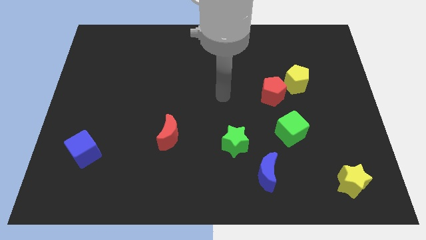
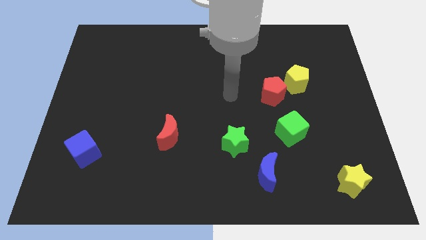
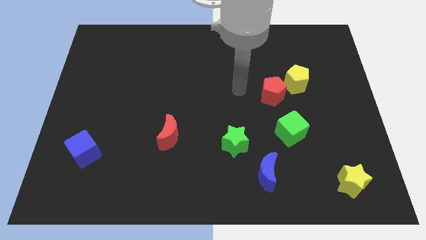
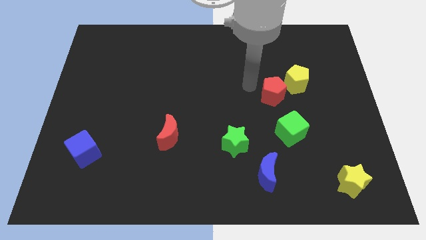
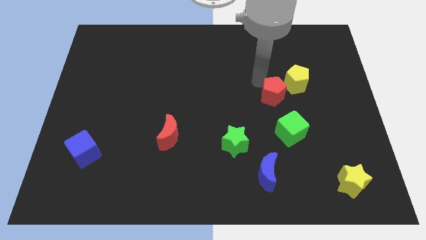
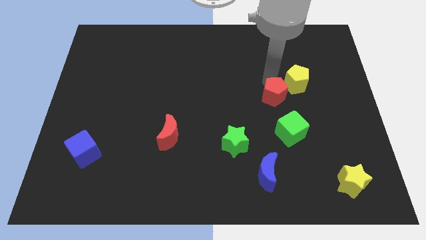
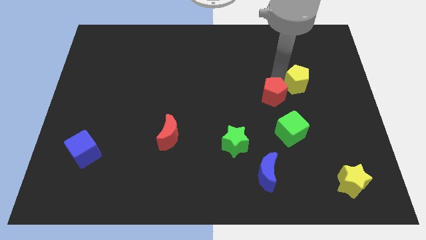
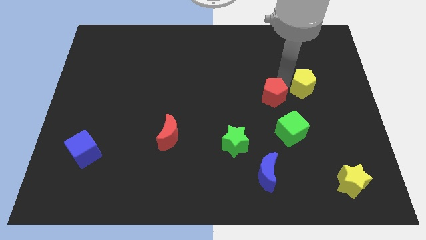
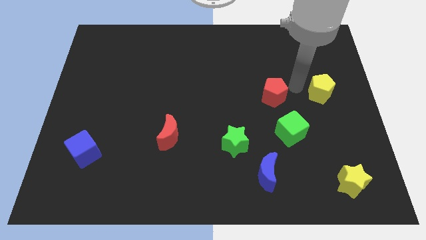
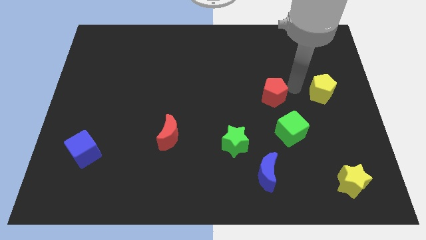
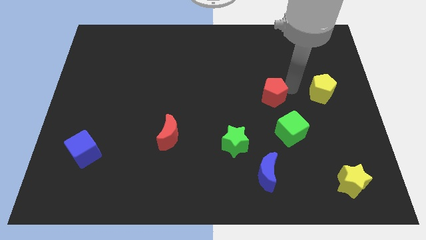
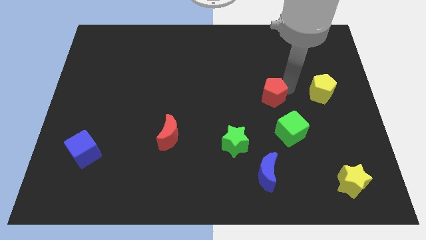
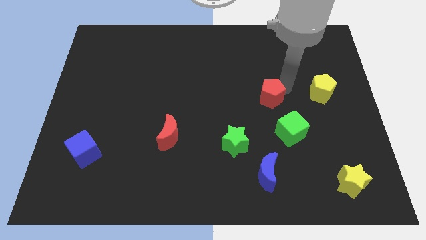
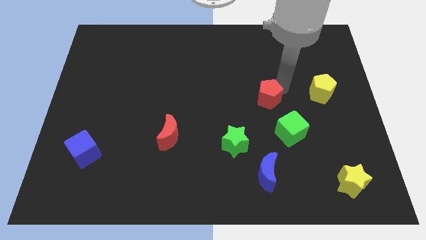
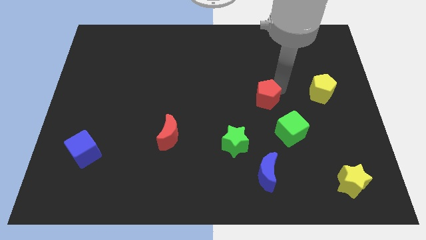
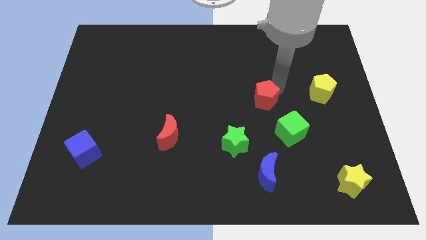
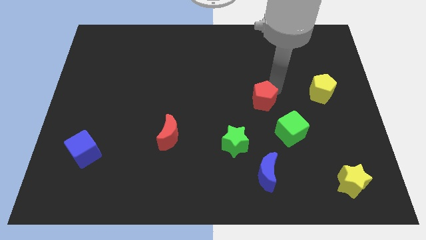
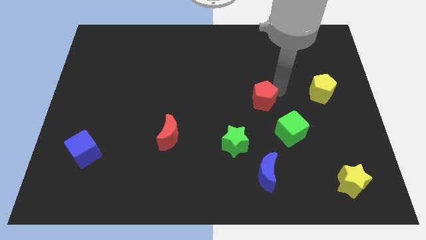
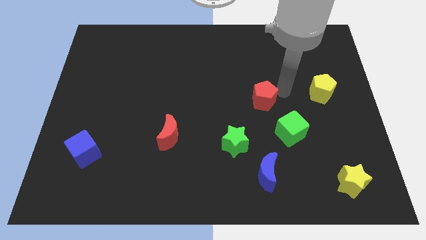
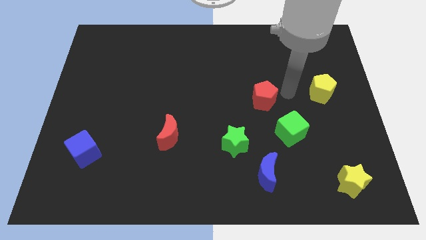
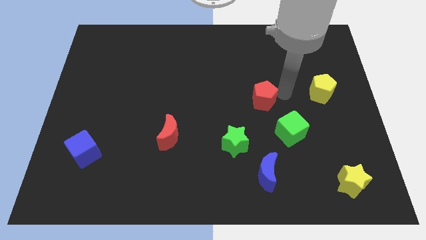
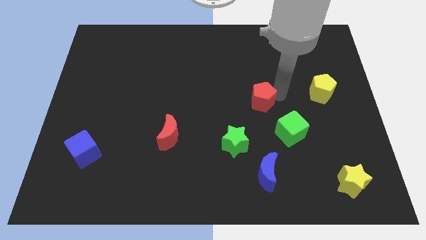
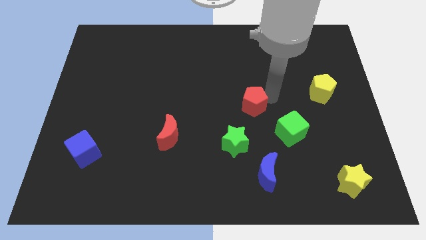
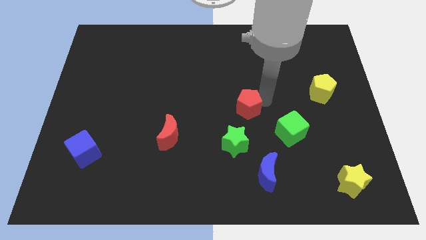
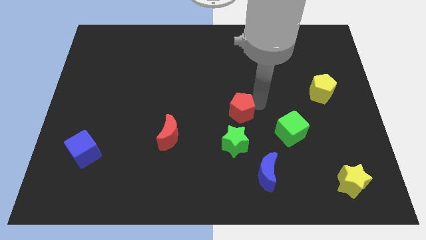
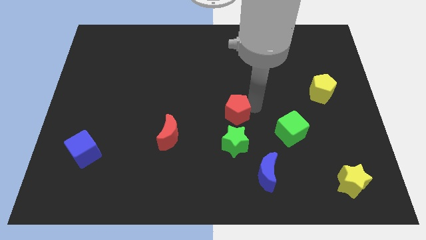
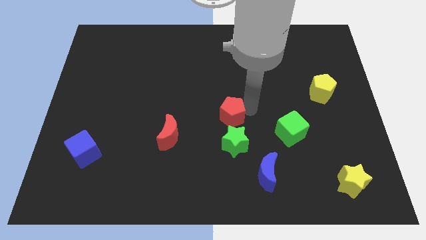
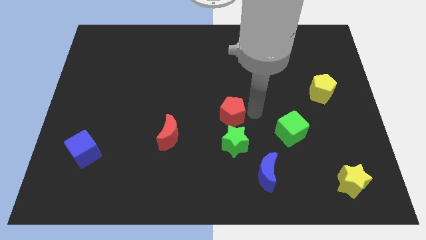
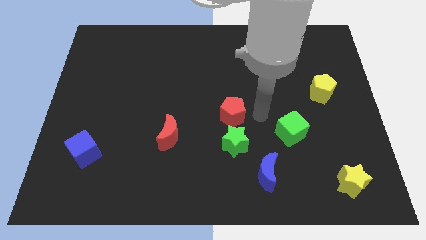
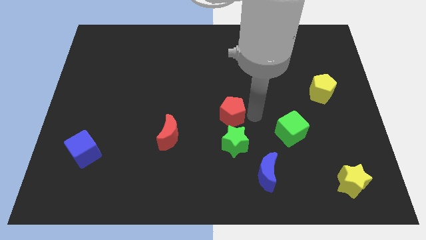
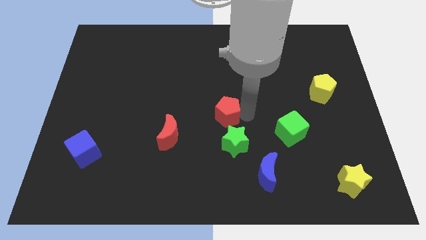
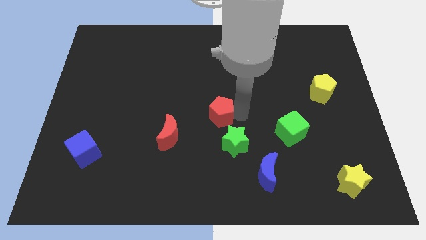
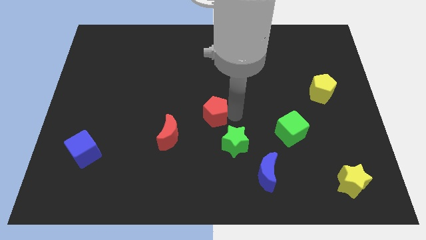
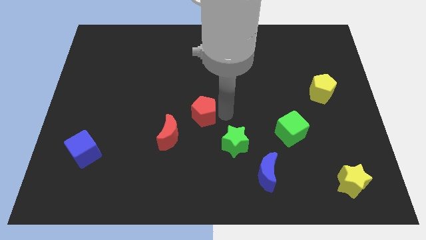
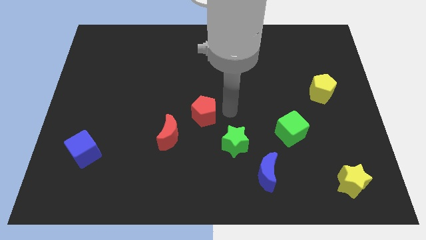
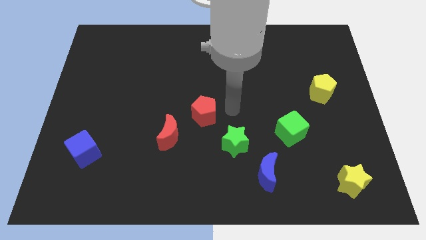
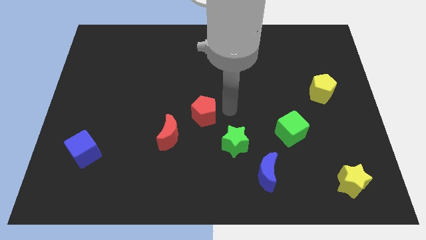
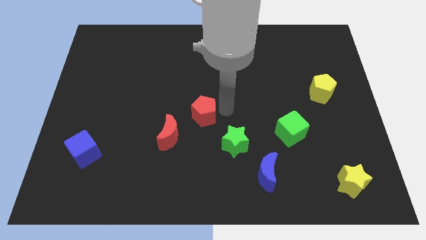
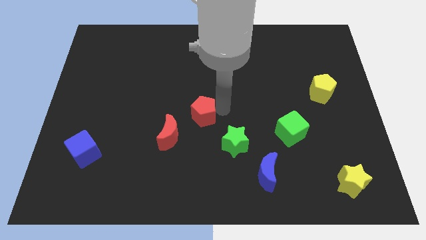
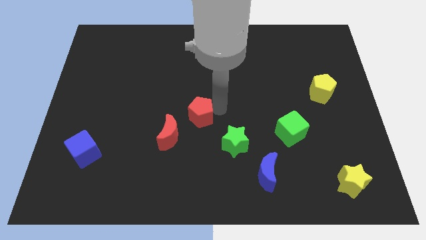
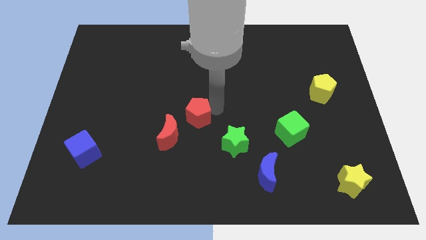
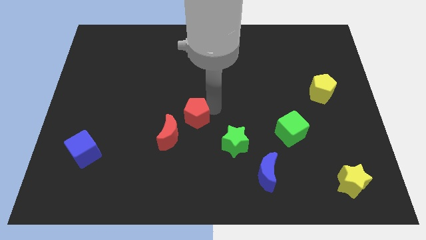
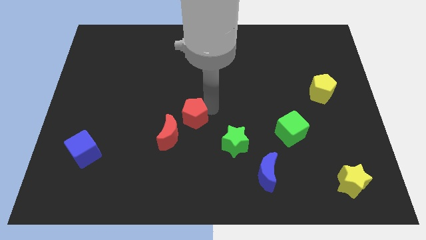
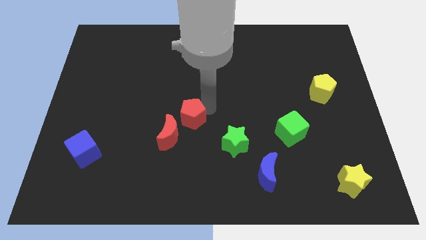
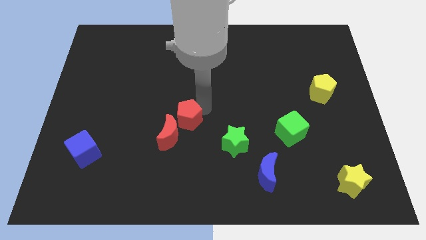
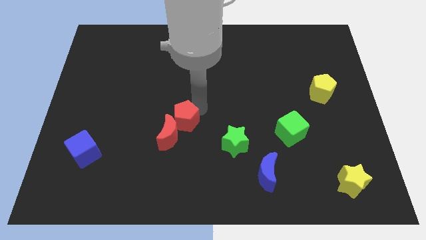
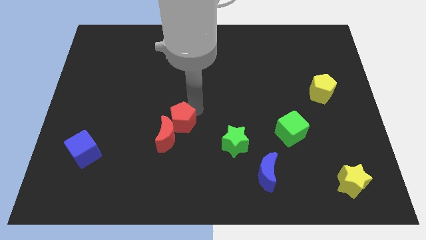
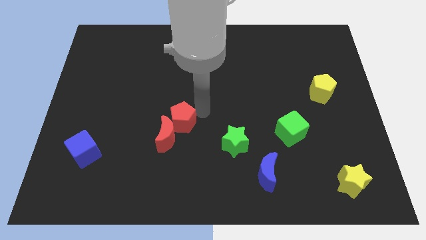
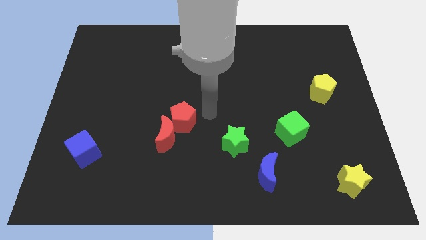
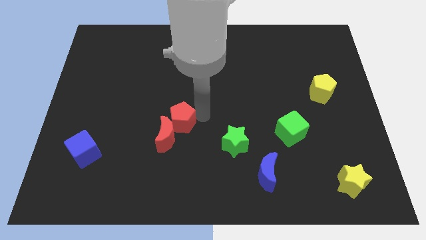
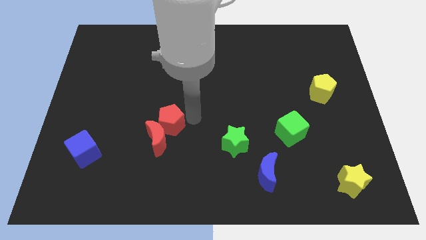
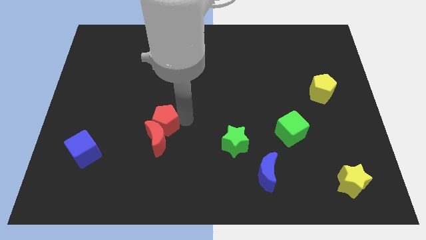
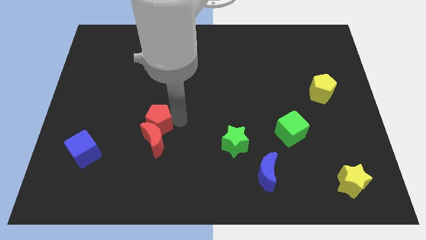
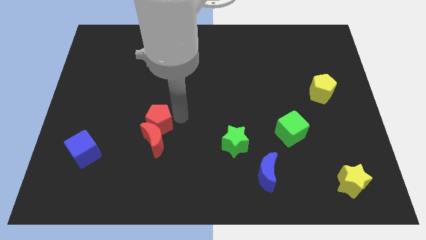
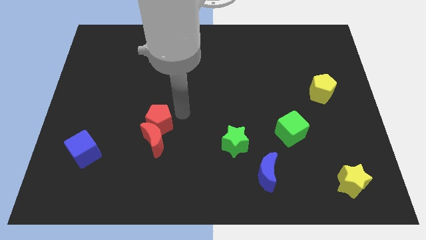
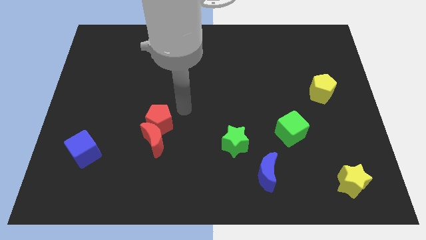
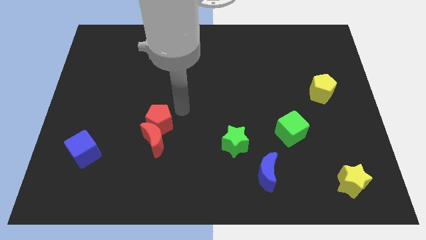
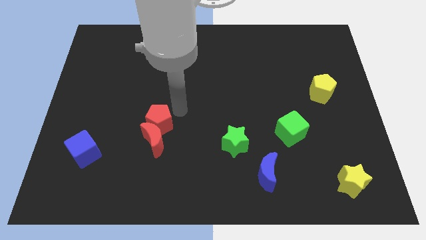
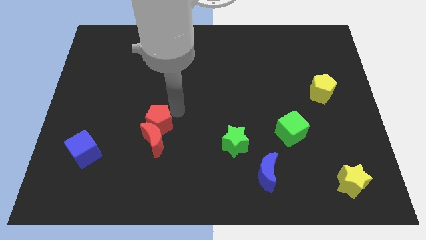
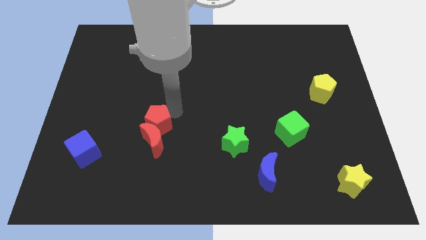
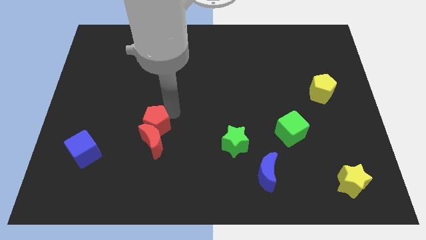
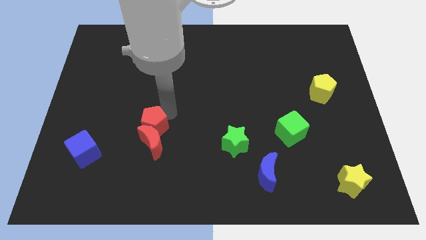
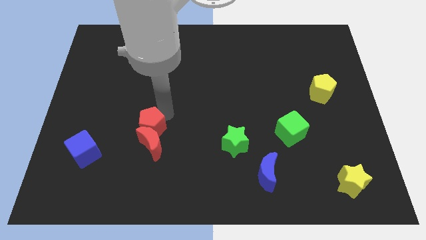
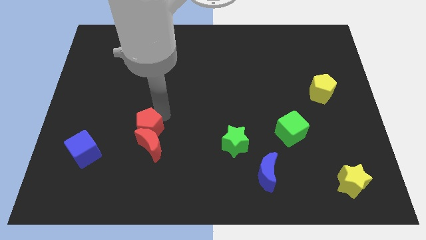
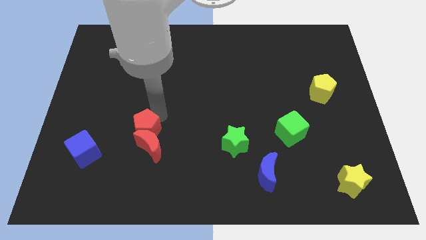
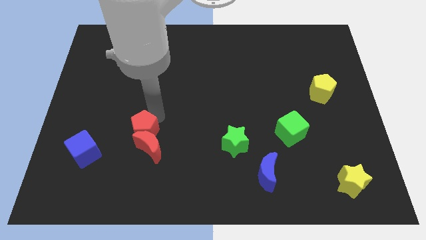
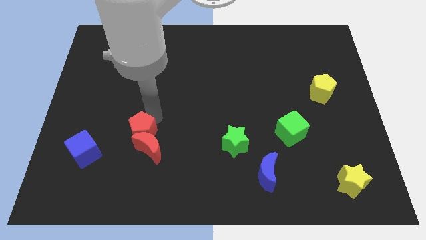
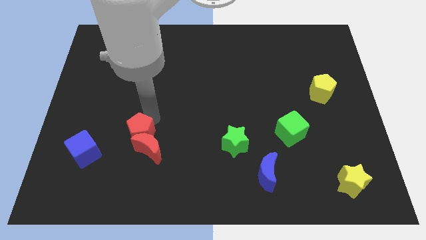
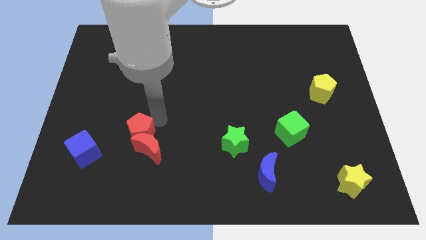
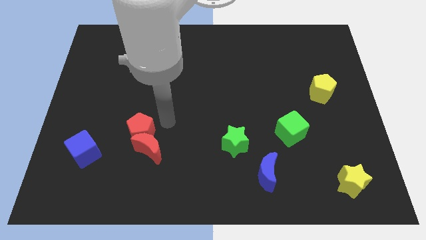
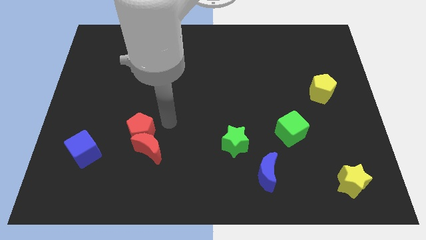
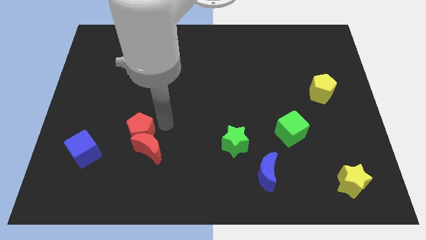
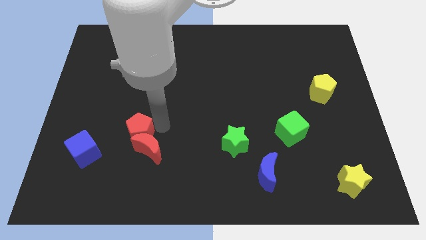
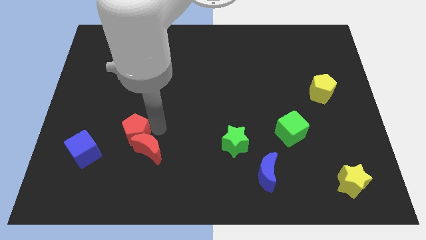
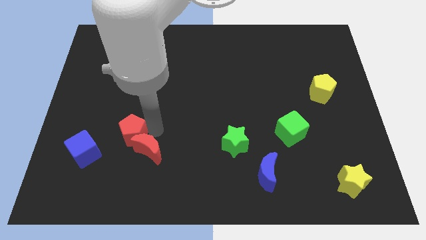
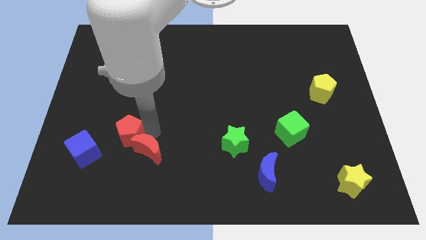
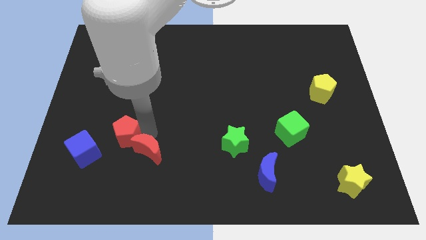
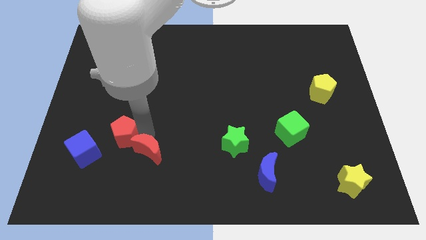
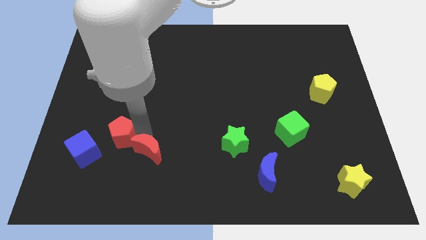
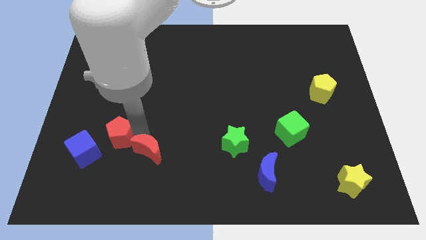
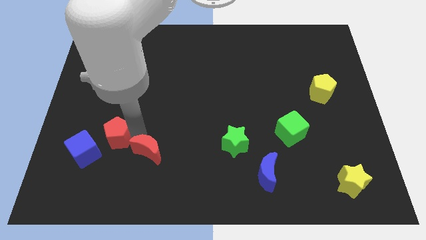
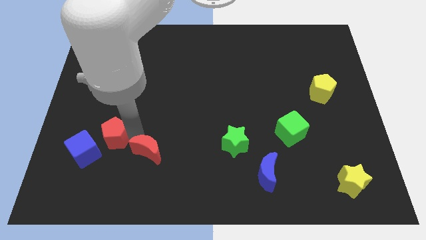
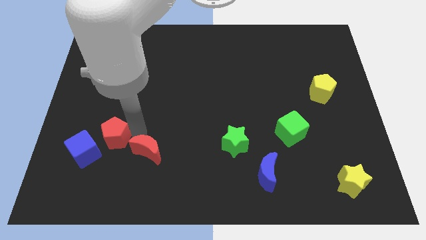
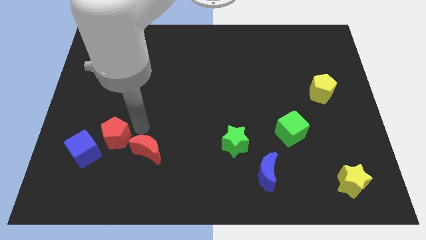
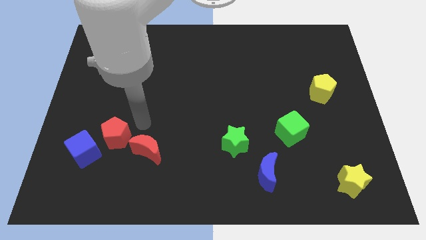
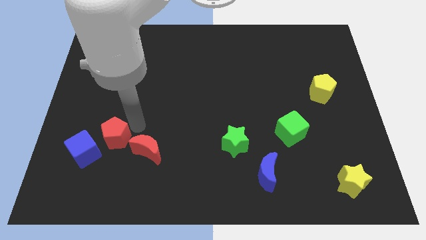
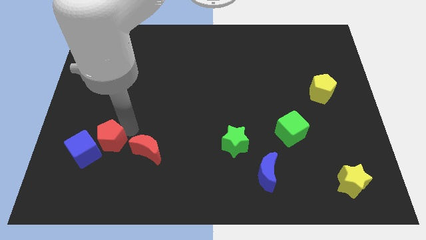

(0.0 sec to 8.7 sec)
slide the red pentagon next to the blue cube
